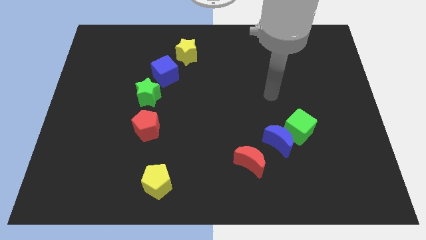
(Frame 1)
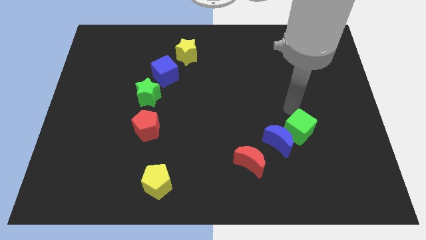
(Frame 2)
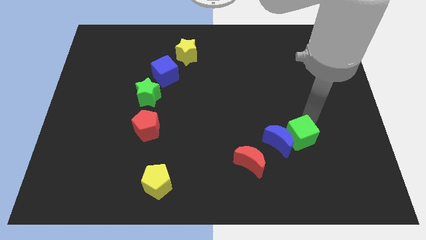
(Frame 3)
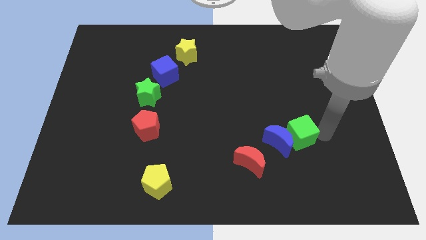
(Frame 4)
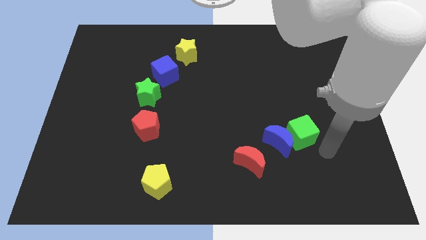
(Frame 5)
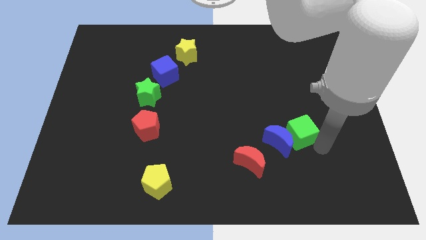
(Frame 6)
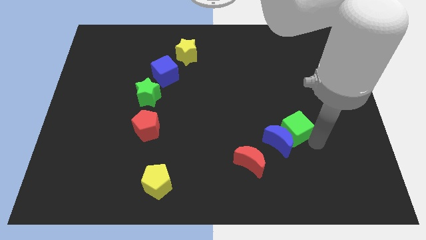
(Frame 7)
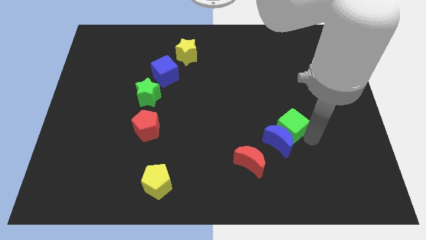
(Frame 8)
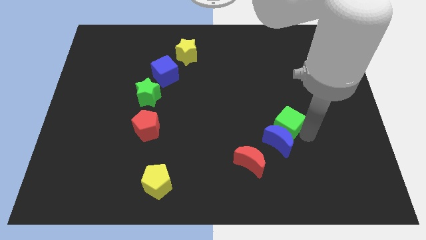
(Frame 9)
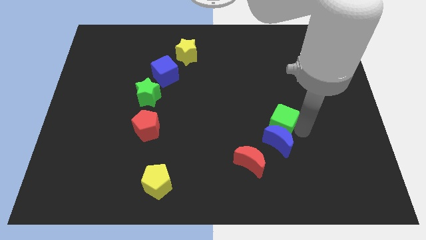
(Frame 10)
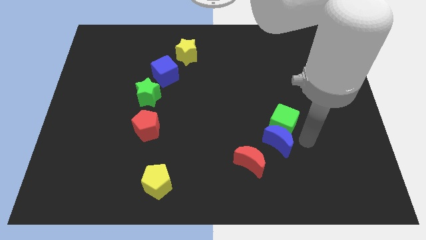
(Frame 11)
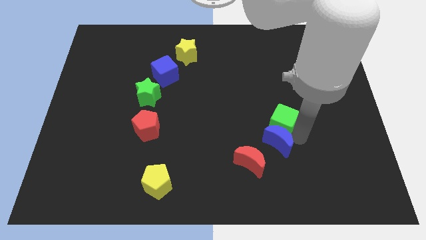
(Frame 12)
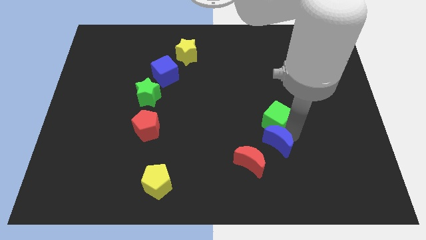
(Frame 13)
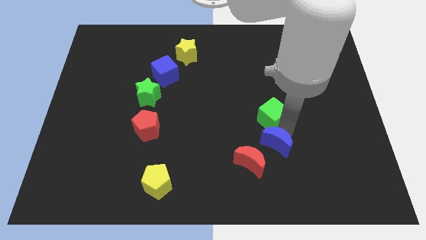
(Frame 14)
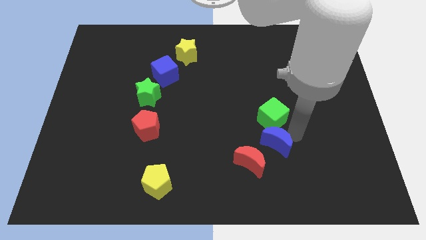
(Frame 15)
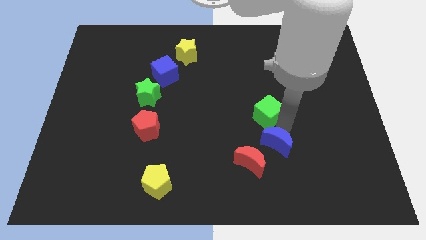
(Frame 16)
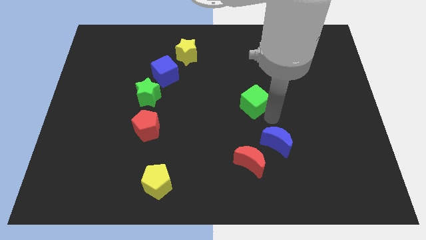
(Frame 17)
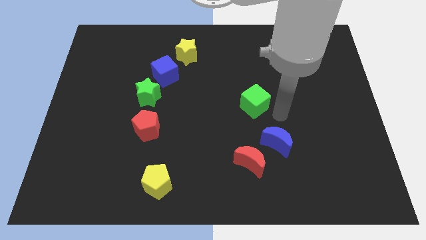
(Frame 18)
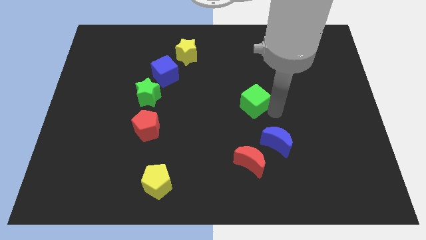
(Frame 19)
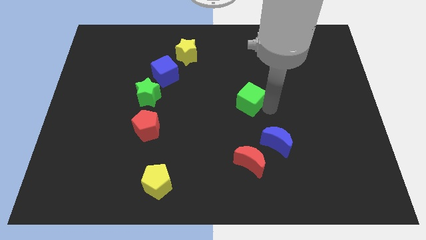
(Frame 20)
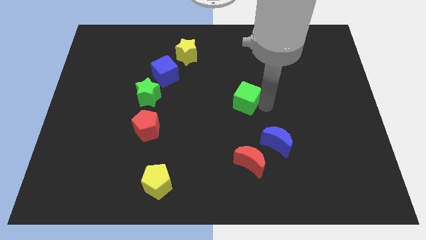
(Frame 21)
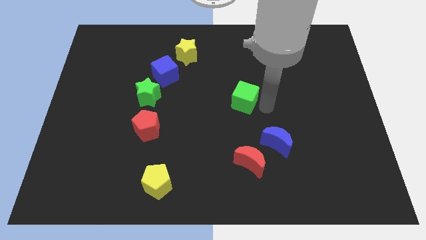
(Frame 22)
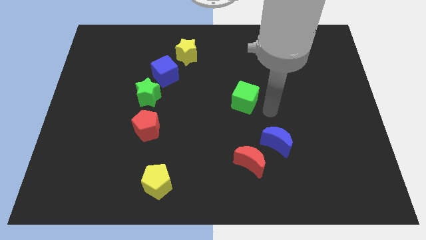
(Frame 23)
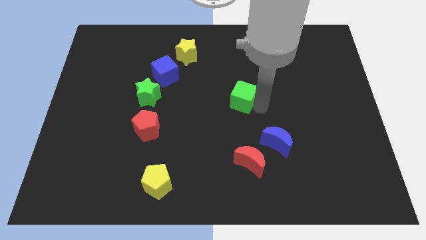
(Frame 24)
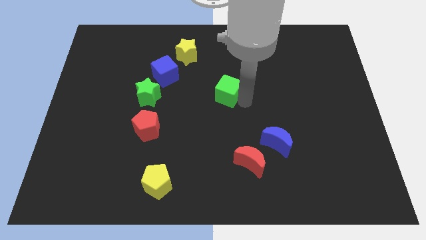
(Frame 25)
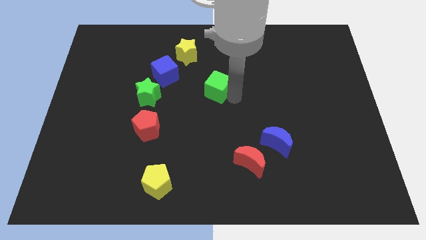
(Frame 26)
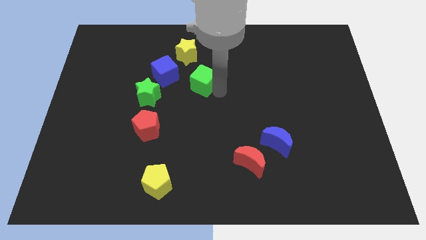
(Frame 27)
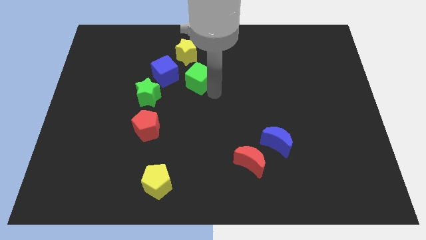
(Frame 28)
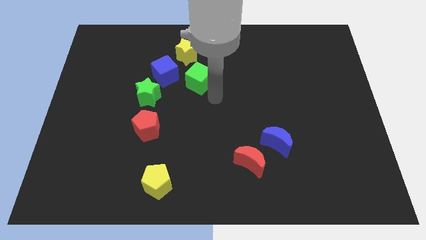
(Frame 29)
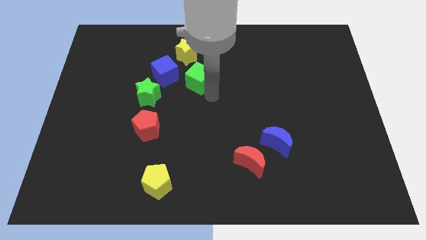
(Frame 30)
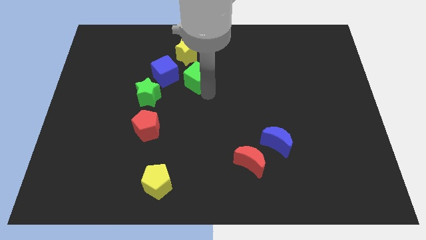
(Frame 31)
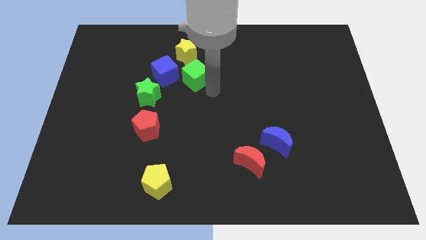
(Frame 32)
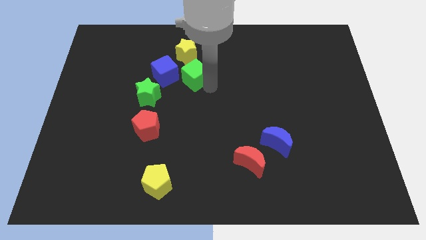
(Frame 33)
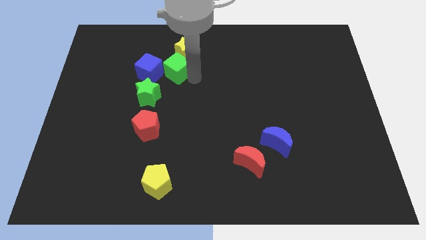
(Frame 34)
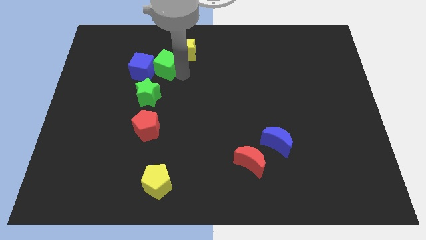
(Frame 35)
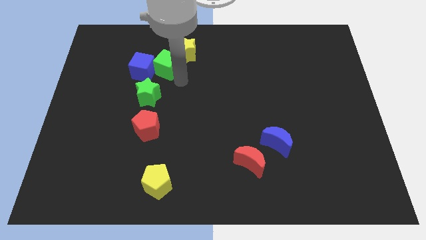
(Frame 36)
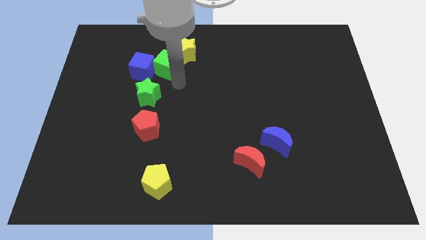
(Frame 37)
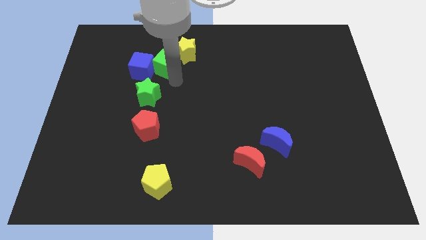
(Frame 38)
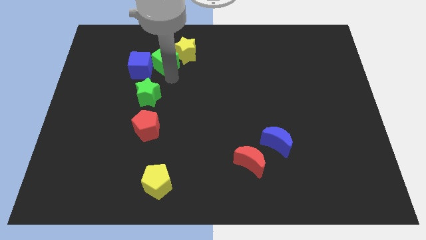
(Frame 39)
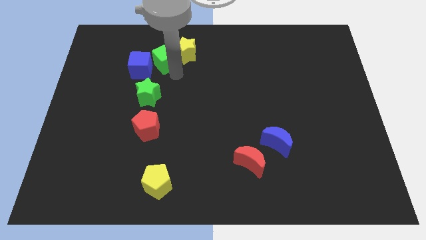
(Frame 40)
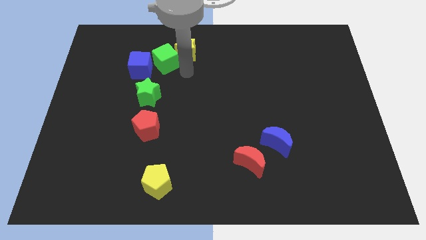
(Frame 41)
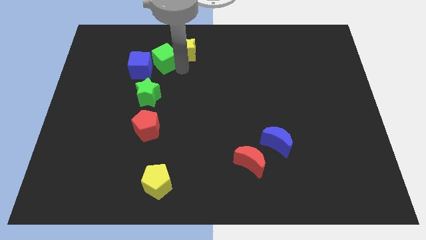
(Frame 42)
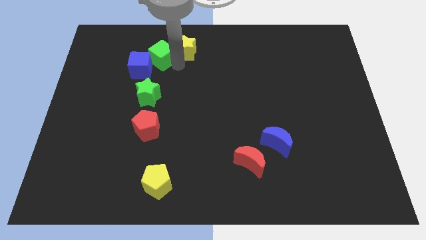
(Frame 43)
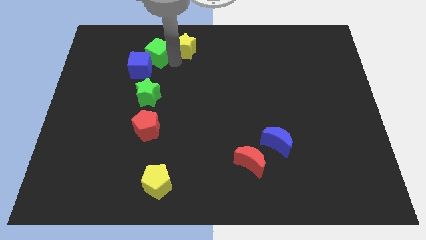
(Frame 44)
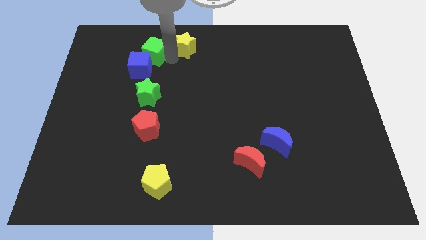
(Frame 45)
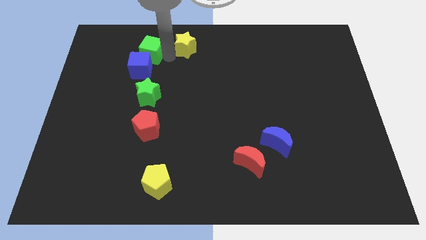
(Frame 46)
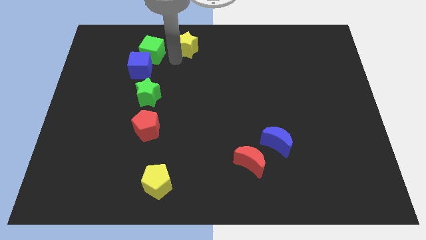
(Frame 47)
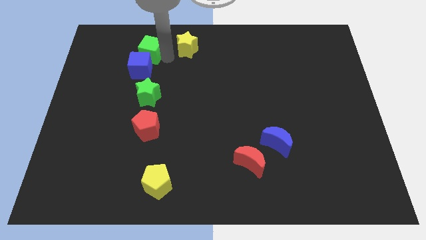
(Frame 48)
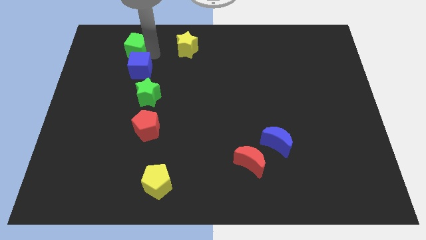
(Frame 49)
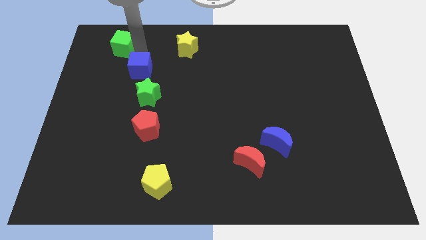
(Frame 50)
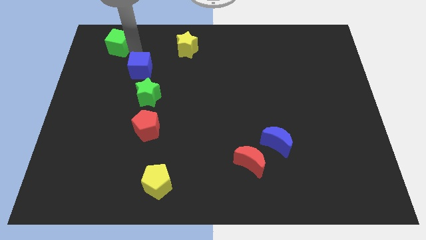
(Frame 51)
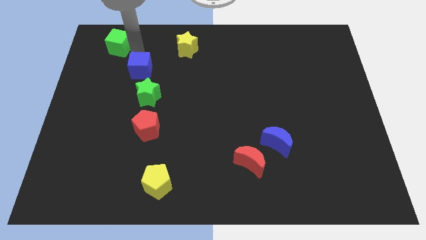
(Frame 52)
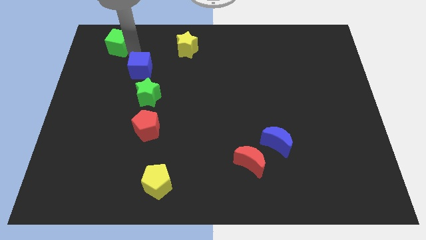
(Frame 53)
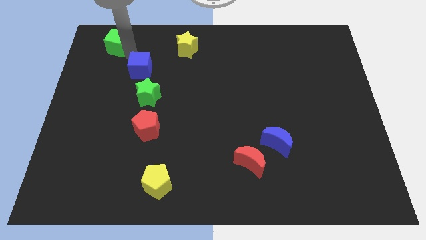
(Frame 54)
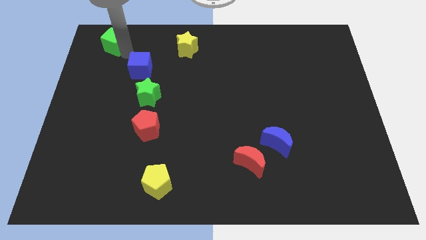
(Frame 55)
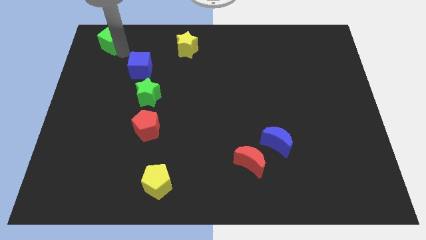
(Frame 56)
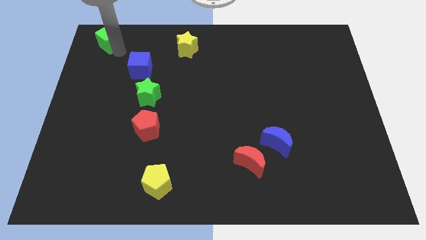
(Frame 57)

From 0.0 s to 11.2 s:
slide the green cube to the top left

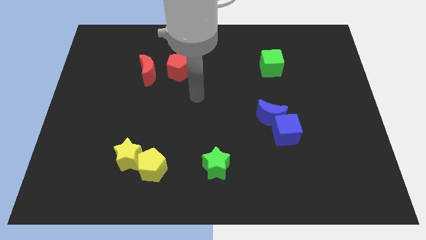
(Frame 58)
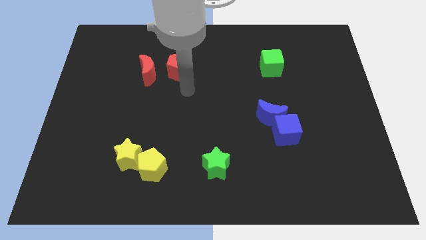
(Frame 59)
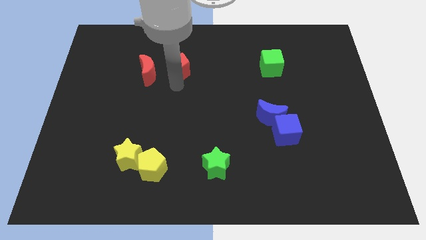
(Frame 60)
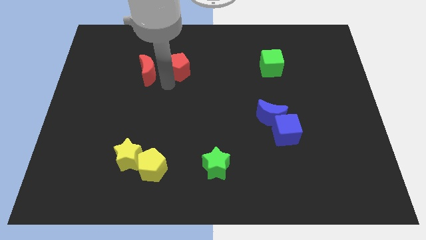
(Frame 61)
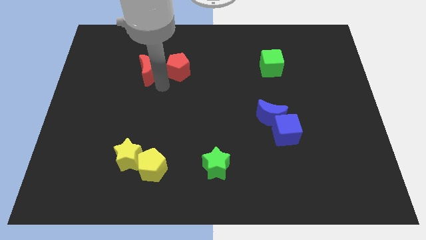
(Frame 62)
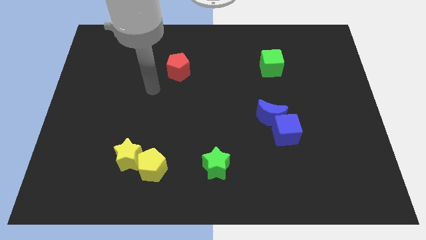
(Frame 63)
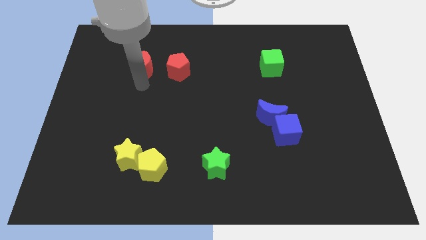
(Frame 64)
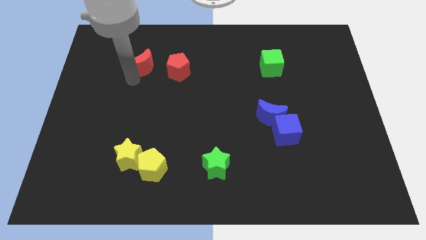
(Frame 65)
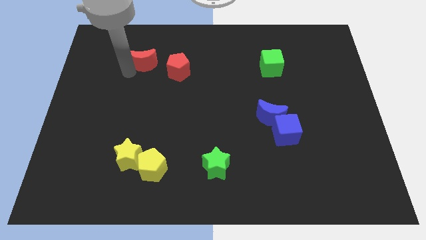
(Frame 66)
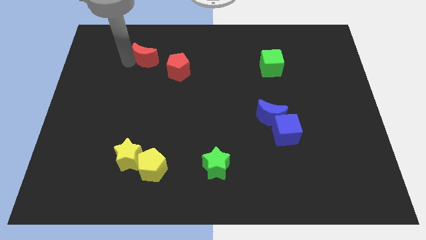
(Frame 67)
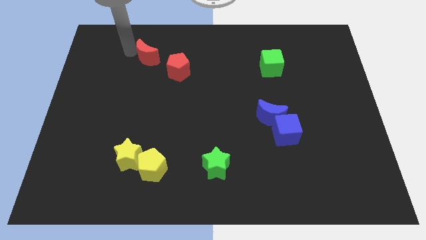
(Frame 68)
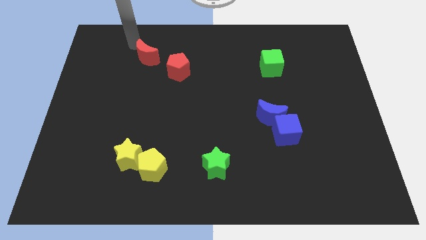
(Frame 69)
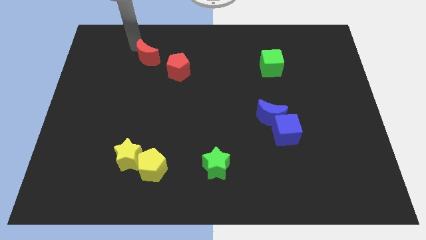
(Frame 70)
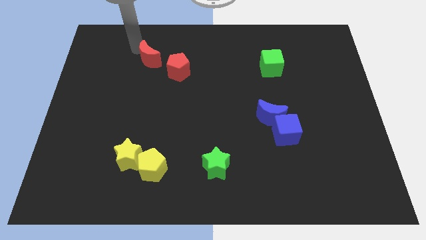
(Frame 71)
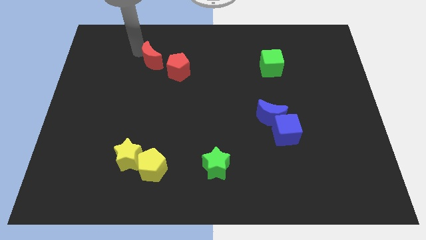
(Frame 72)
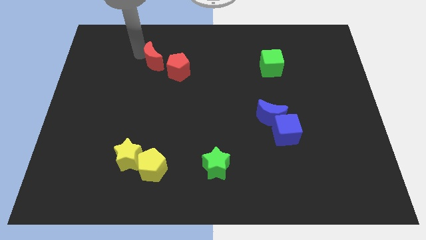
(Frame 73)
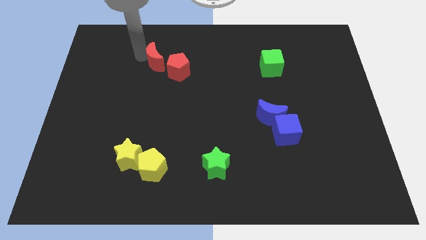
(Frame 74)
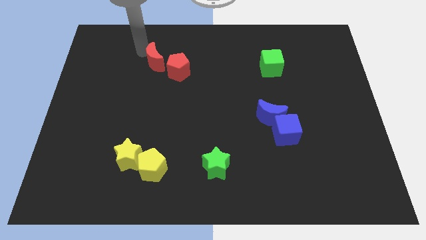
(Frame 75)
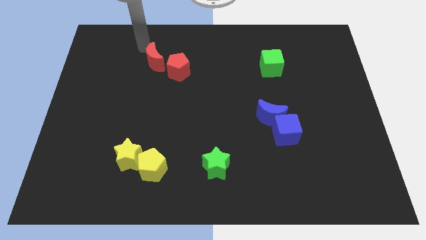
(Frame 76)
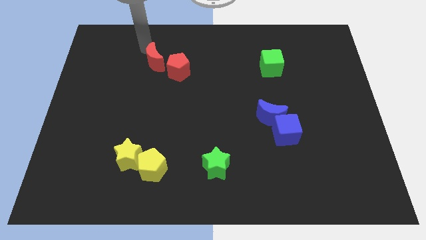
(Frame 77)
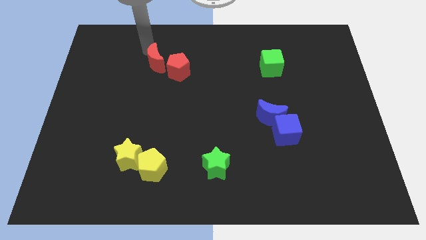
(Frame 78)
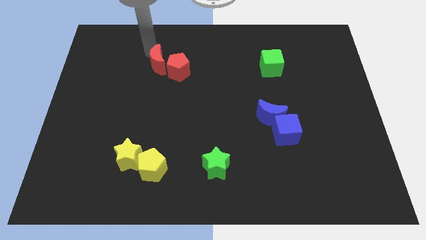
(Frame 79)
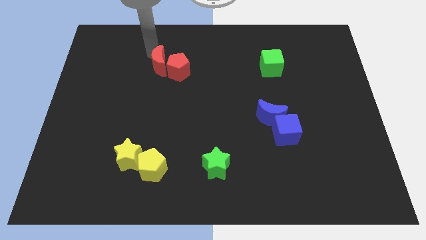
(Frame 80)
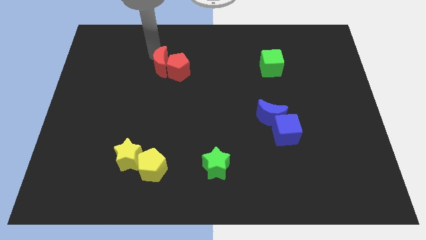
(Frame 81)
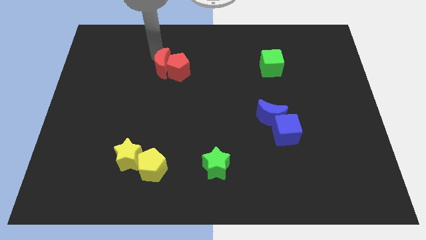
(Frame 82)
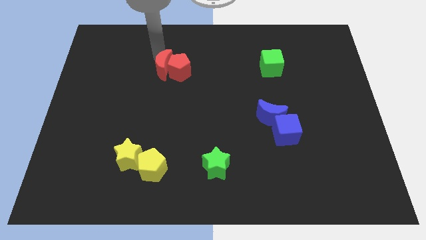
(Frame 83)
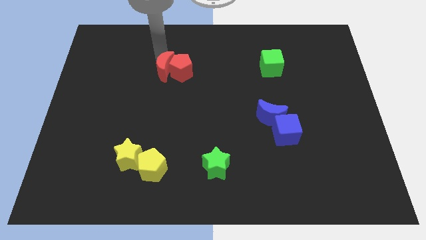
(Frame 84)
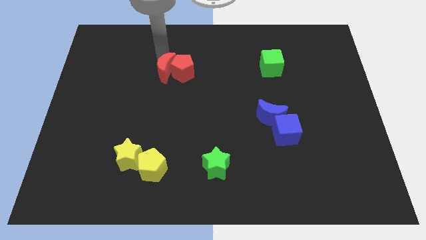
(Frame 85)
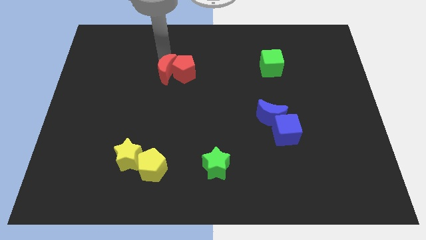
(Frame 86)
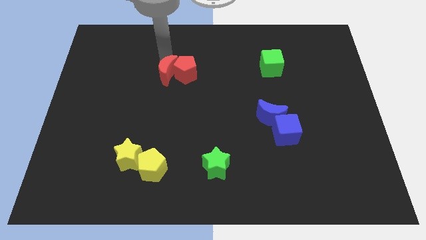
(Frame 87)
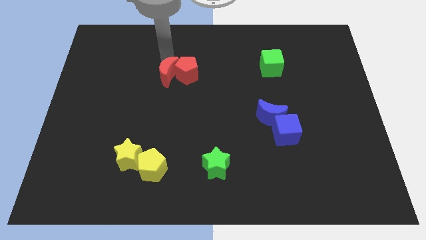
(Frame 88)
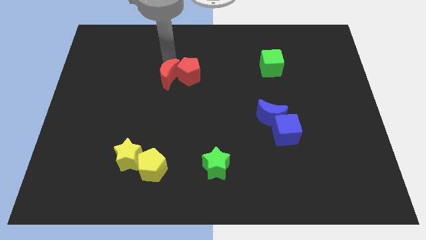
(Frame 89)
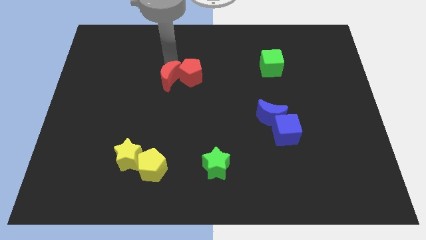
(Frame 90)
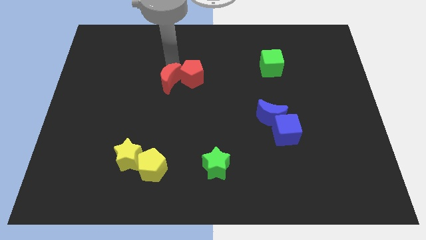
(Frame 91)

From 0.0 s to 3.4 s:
slide the red moon to the middle of the board
